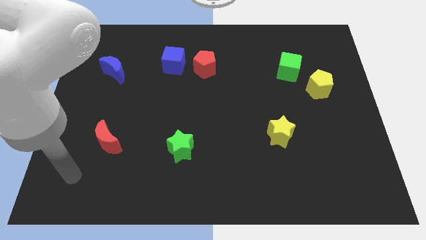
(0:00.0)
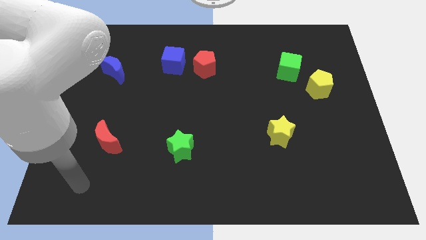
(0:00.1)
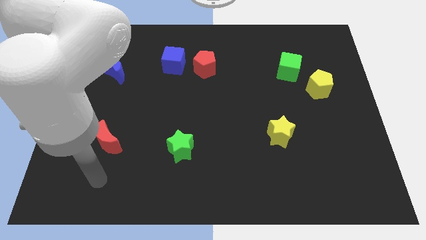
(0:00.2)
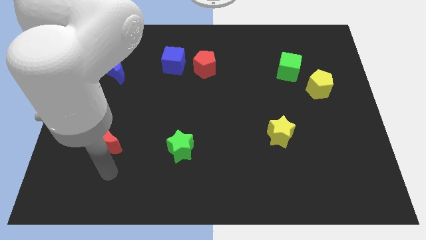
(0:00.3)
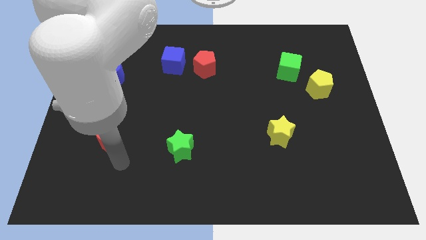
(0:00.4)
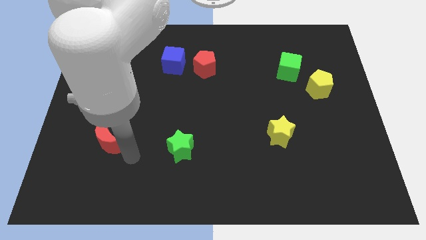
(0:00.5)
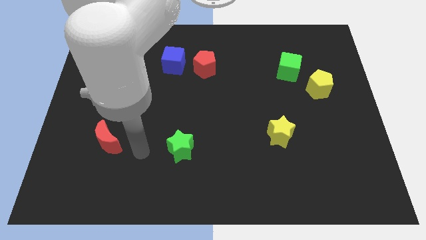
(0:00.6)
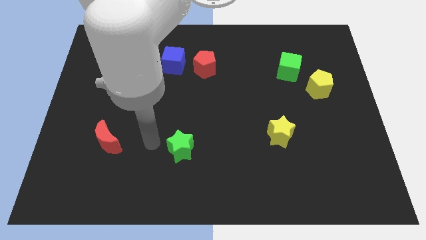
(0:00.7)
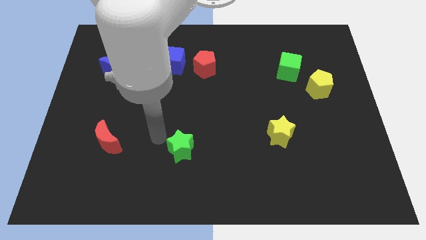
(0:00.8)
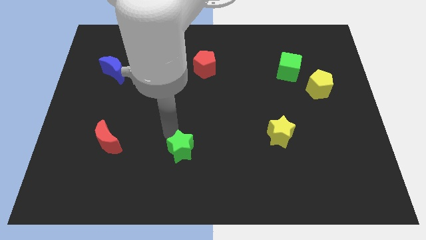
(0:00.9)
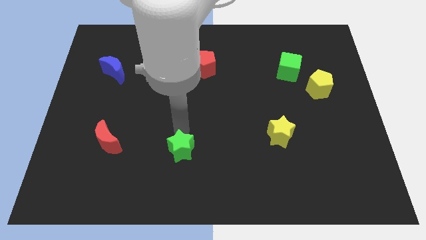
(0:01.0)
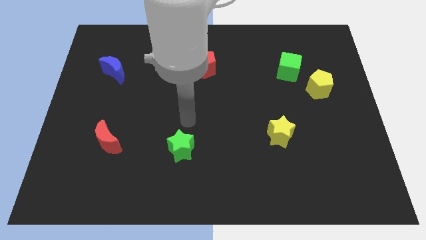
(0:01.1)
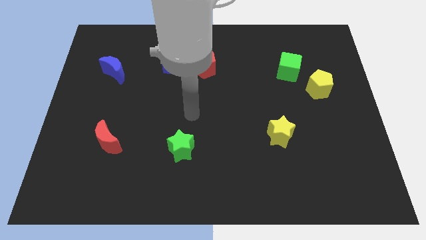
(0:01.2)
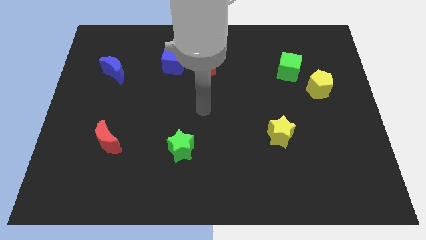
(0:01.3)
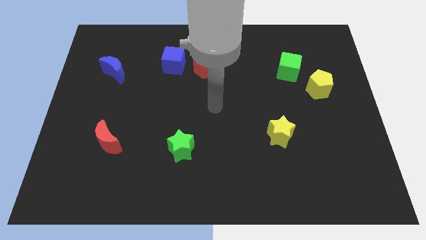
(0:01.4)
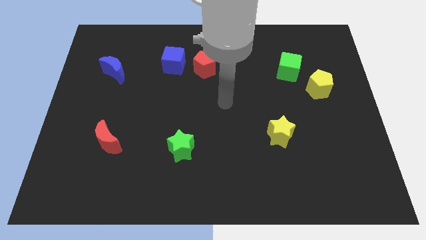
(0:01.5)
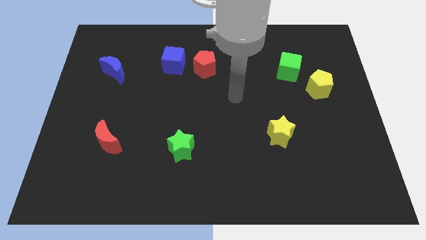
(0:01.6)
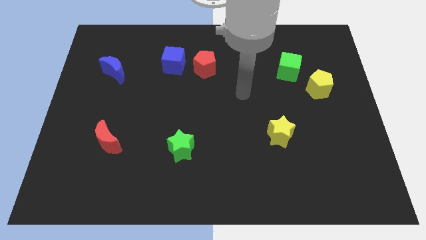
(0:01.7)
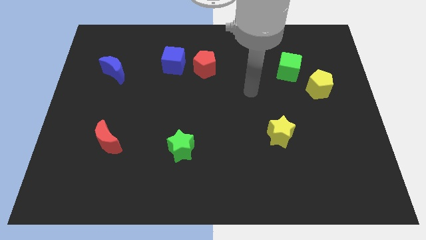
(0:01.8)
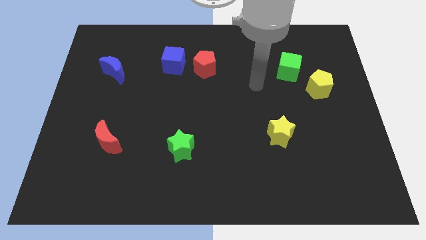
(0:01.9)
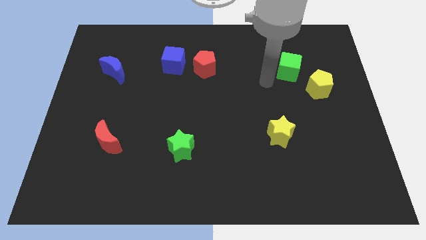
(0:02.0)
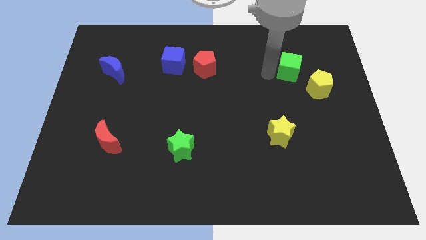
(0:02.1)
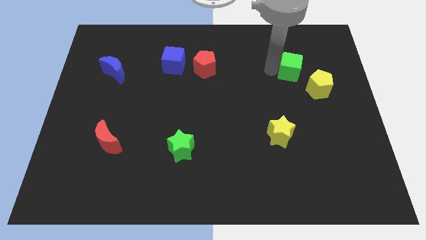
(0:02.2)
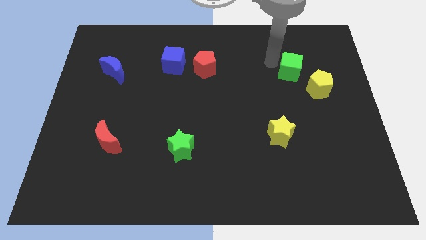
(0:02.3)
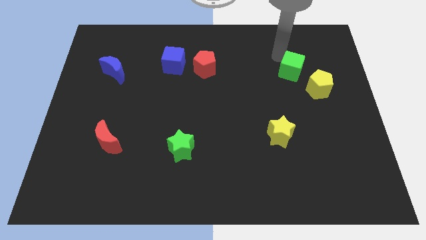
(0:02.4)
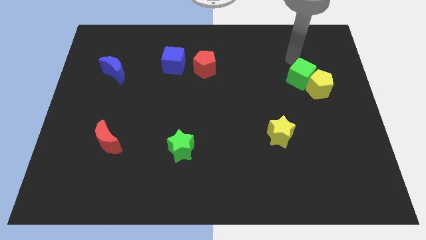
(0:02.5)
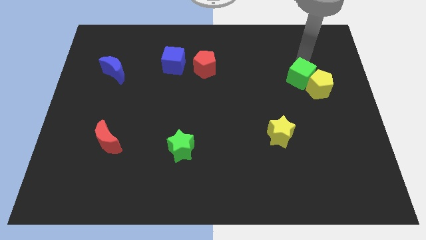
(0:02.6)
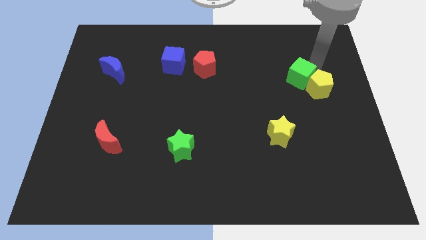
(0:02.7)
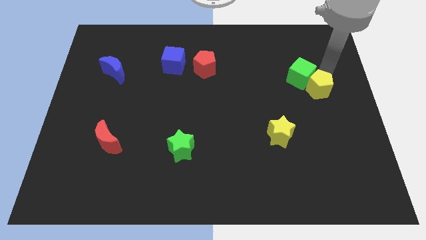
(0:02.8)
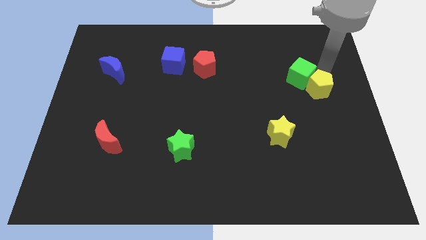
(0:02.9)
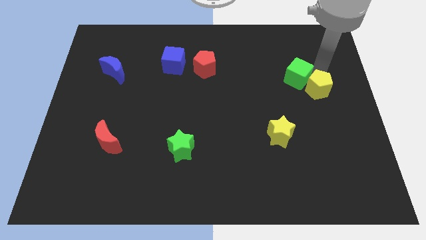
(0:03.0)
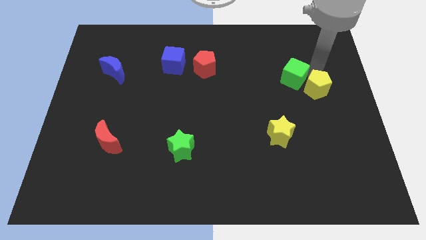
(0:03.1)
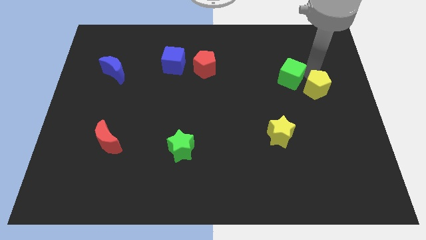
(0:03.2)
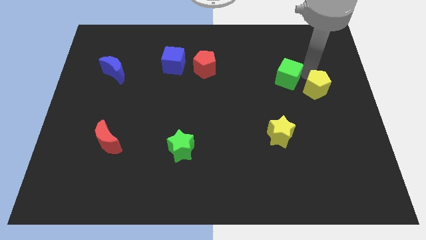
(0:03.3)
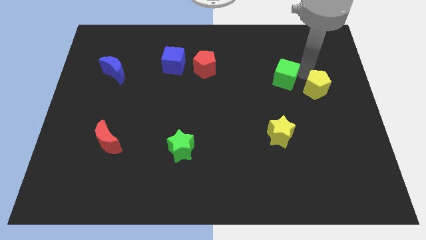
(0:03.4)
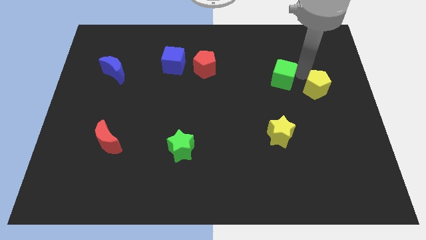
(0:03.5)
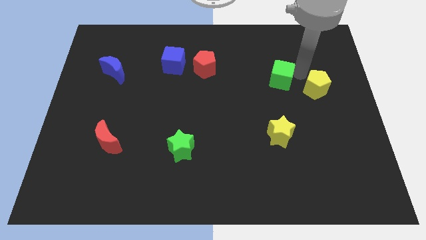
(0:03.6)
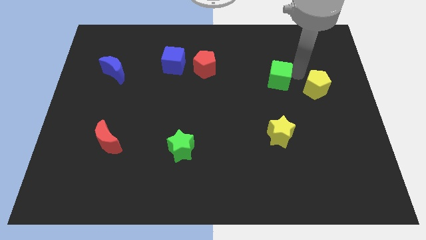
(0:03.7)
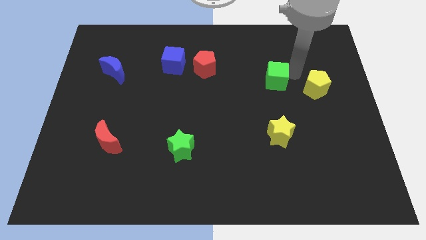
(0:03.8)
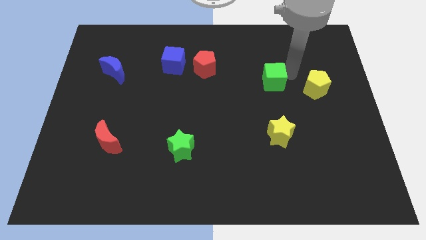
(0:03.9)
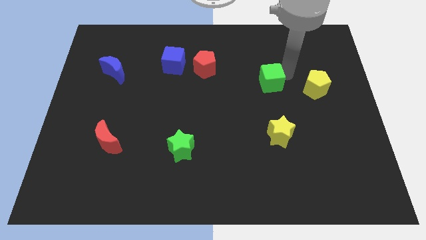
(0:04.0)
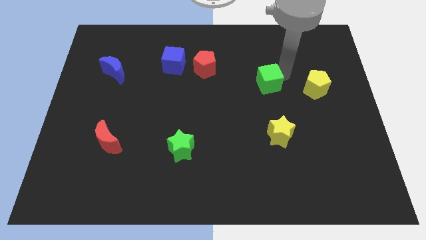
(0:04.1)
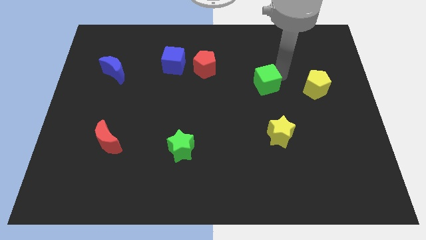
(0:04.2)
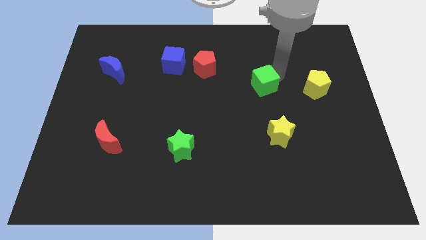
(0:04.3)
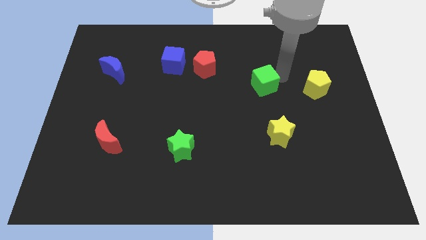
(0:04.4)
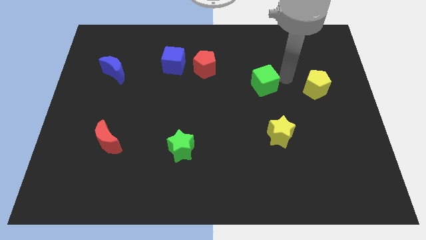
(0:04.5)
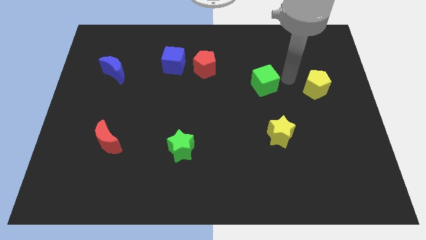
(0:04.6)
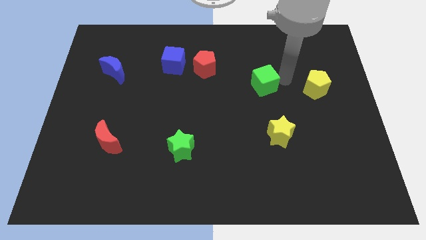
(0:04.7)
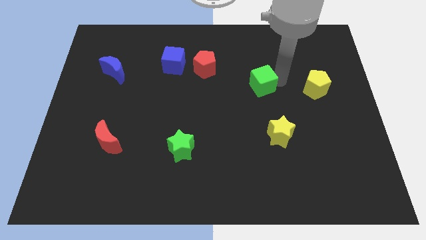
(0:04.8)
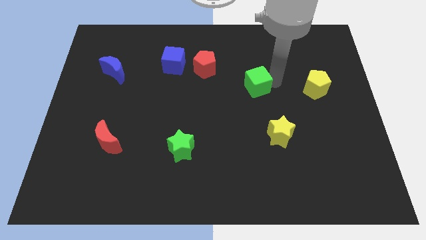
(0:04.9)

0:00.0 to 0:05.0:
slide the green cube to the middle of the board
